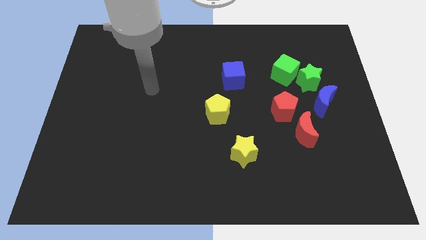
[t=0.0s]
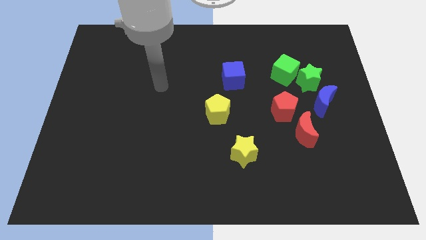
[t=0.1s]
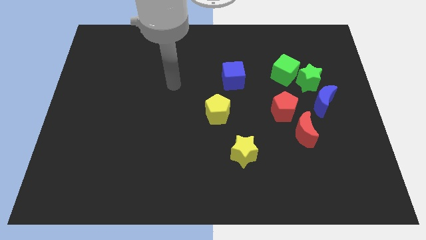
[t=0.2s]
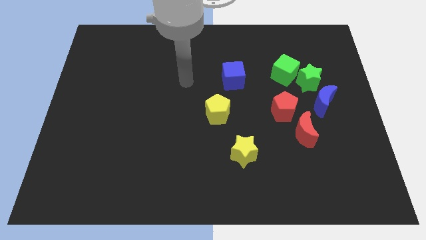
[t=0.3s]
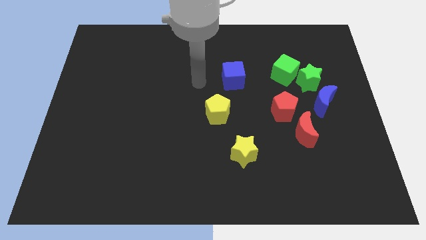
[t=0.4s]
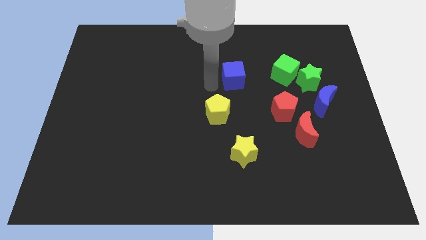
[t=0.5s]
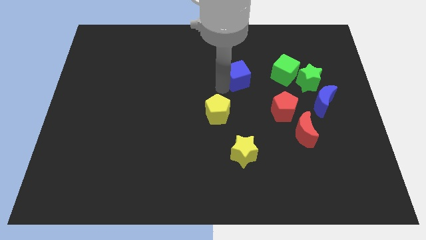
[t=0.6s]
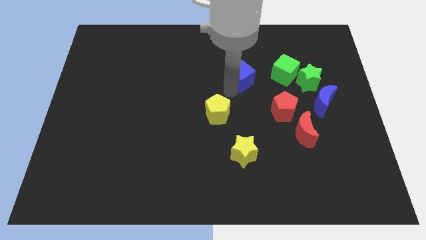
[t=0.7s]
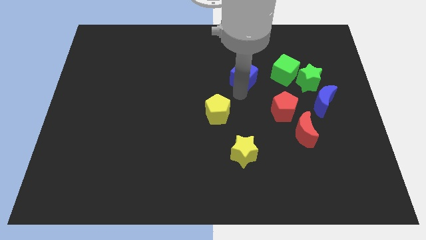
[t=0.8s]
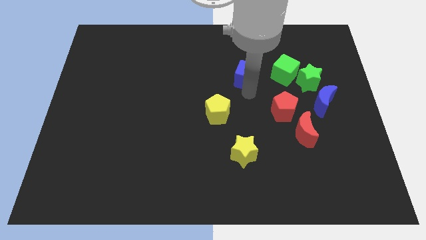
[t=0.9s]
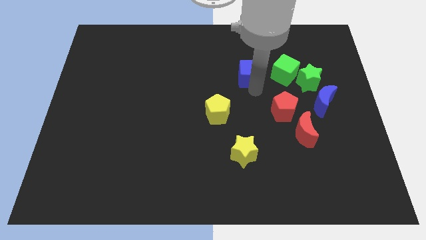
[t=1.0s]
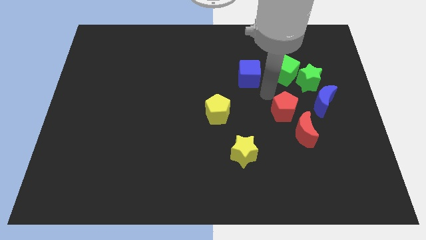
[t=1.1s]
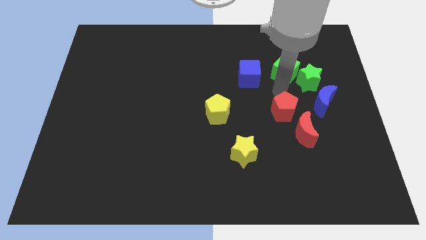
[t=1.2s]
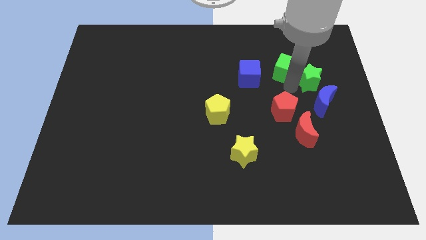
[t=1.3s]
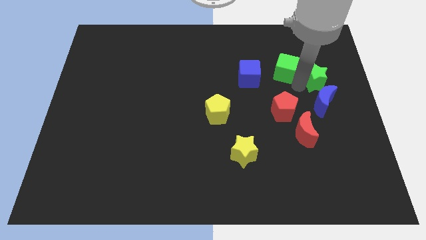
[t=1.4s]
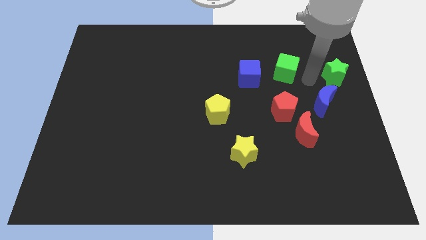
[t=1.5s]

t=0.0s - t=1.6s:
pull the green cube apart from the green star

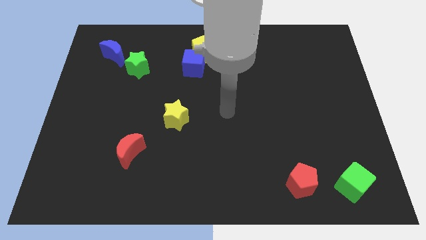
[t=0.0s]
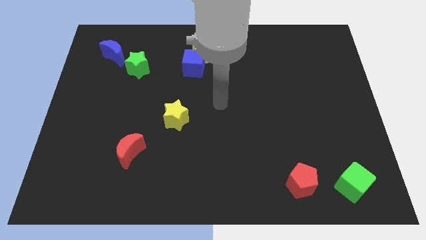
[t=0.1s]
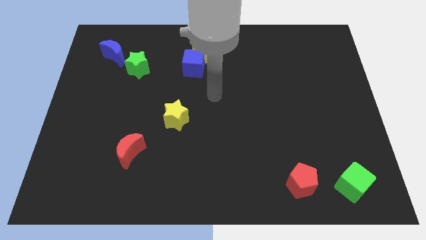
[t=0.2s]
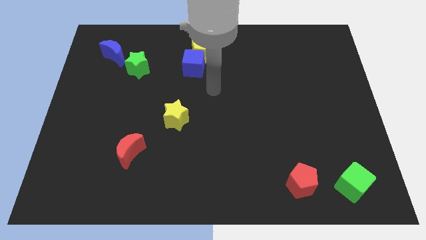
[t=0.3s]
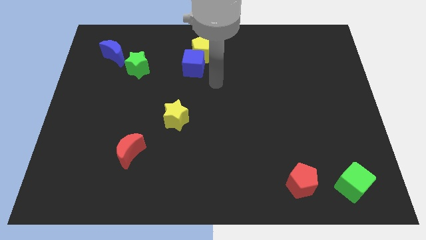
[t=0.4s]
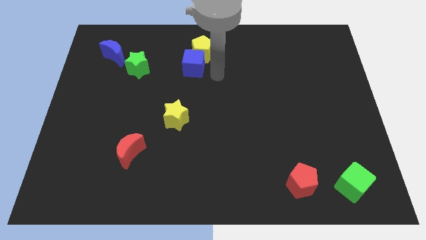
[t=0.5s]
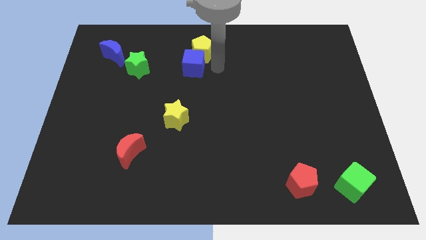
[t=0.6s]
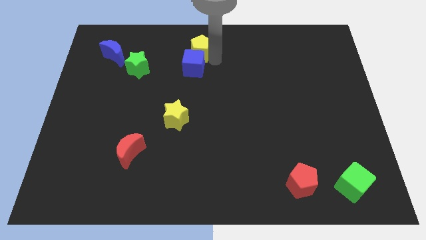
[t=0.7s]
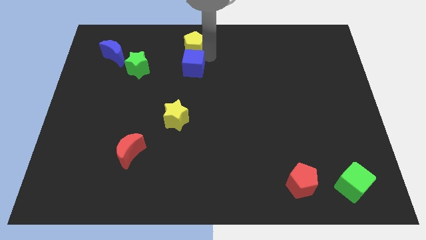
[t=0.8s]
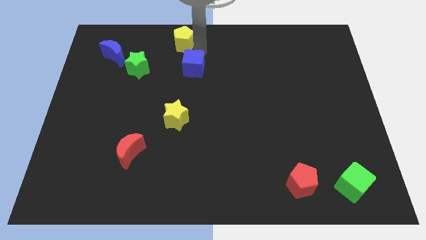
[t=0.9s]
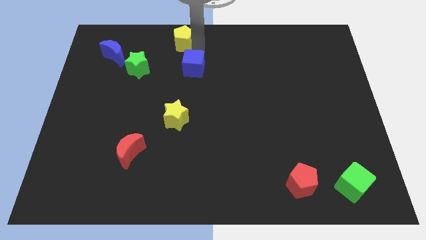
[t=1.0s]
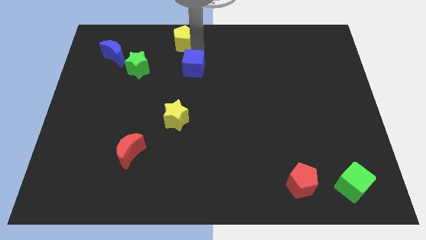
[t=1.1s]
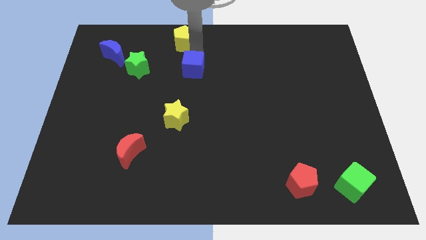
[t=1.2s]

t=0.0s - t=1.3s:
pull the blue cube apart from the yellow pentagon

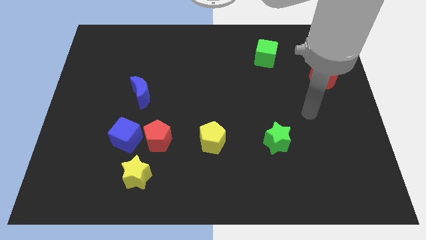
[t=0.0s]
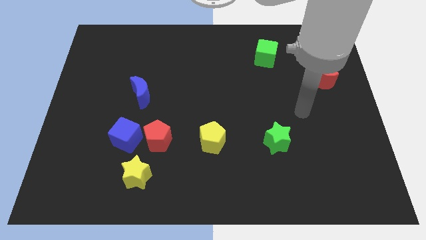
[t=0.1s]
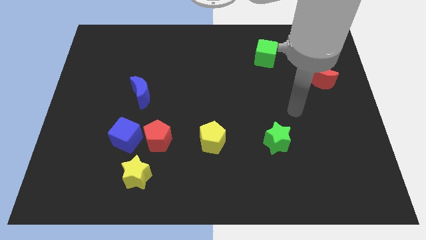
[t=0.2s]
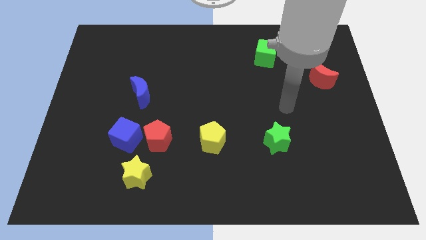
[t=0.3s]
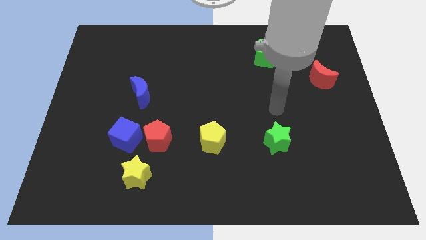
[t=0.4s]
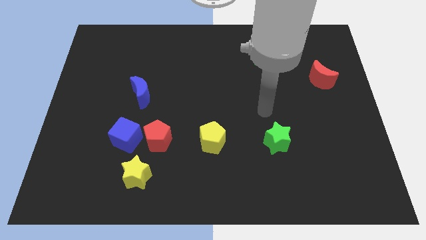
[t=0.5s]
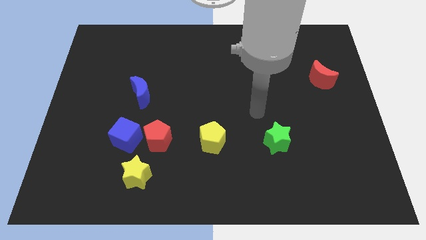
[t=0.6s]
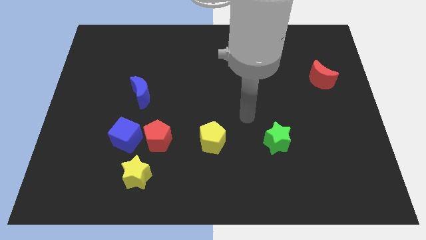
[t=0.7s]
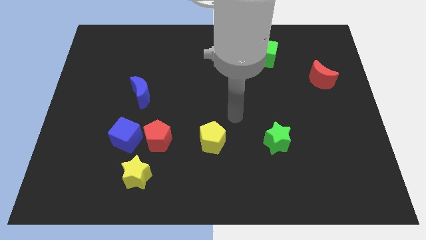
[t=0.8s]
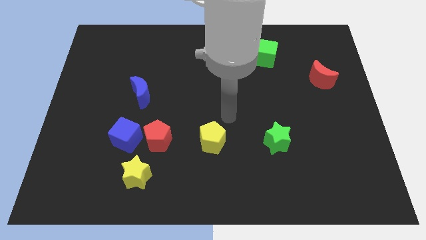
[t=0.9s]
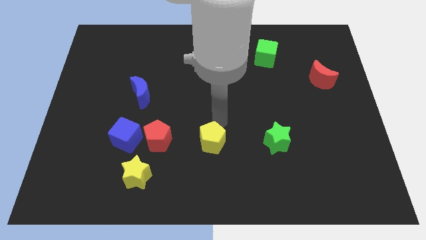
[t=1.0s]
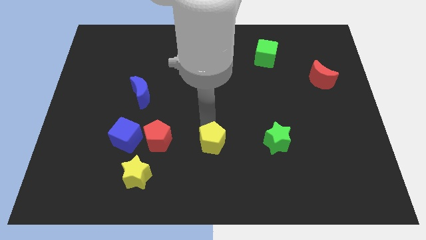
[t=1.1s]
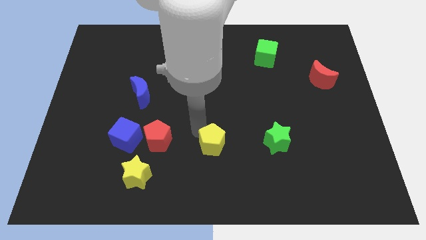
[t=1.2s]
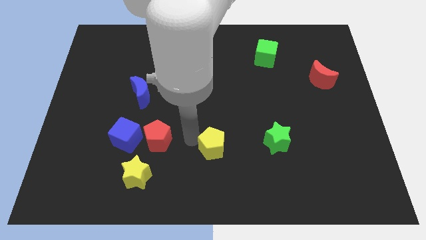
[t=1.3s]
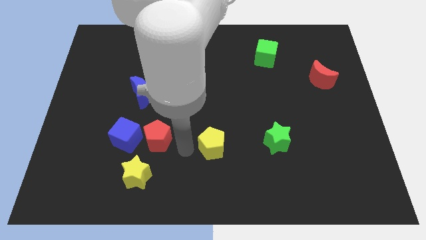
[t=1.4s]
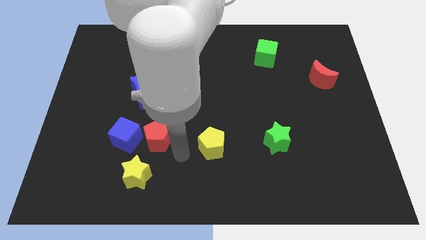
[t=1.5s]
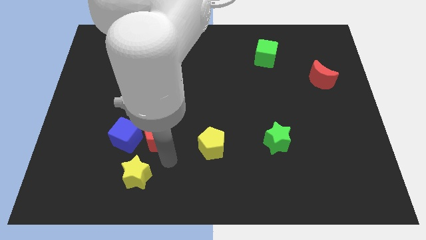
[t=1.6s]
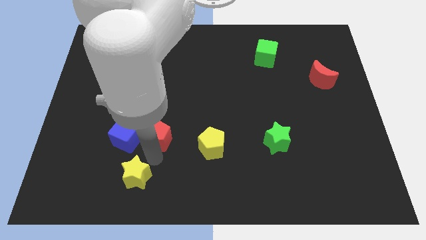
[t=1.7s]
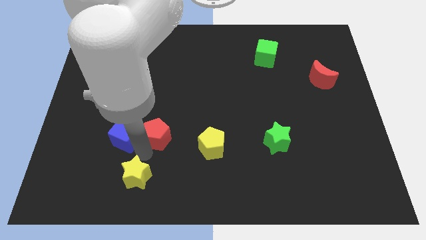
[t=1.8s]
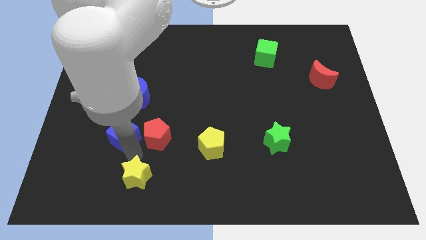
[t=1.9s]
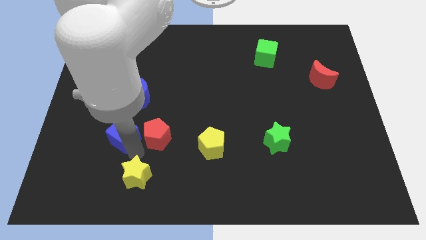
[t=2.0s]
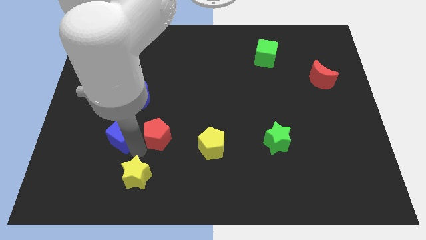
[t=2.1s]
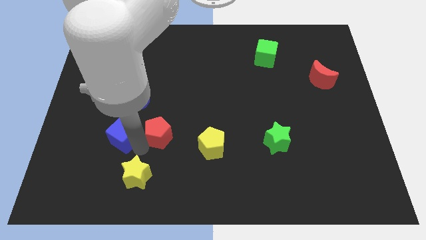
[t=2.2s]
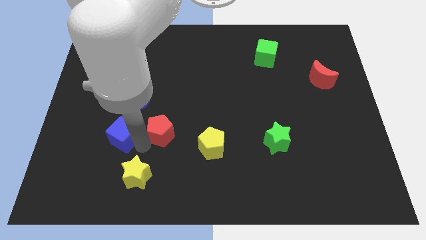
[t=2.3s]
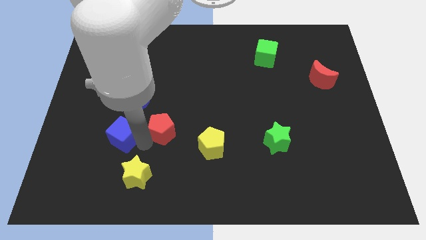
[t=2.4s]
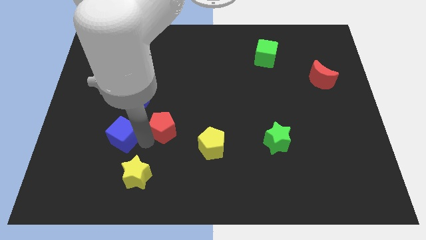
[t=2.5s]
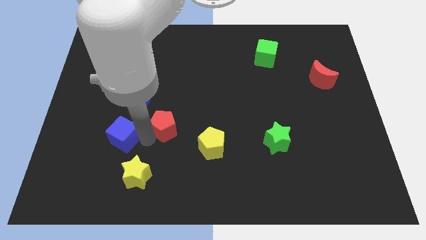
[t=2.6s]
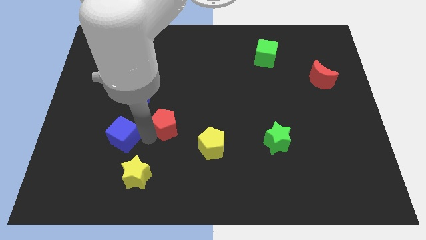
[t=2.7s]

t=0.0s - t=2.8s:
separate the red pentagon from the blue cube and yellow star

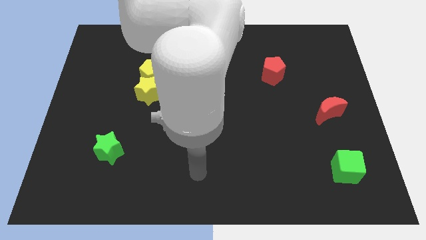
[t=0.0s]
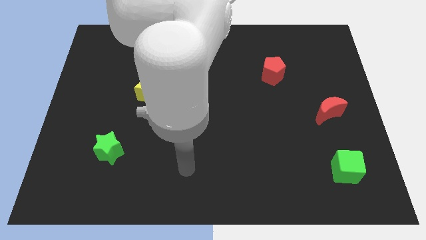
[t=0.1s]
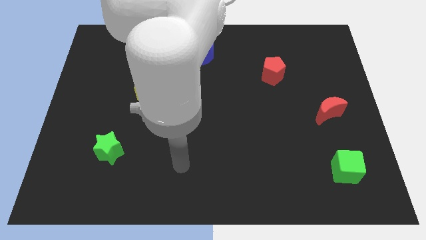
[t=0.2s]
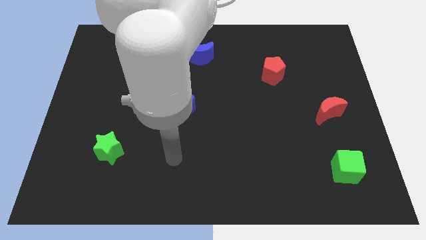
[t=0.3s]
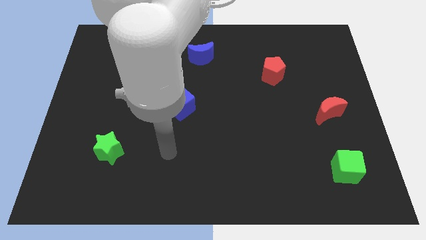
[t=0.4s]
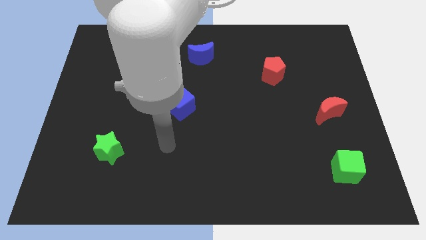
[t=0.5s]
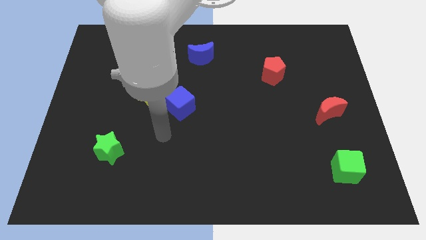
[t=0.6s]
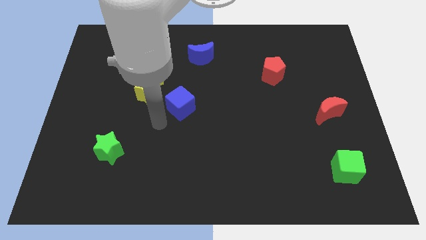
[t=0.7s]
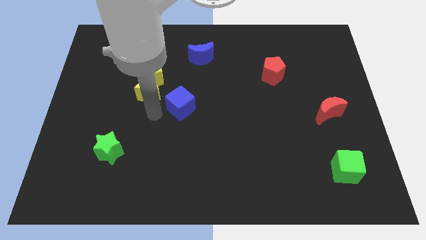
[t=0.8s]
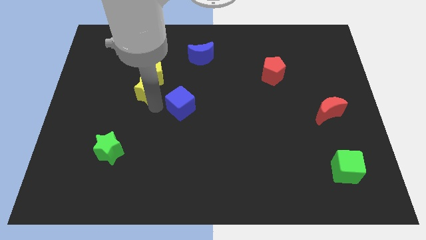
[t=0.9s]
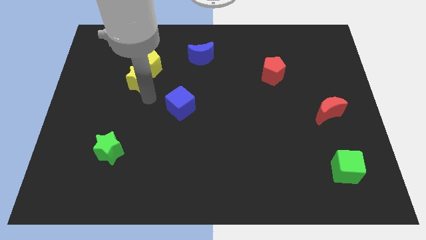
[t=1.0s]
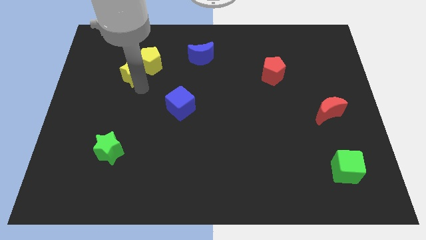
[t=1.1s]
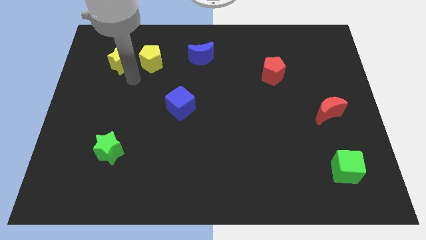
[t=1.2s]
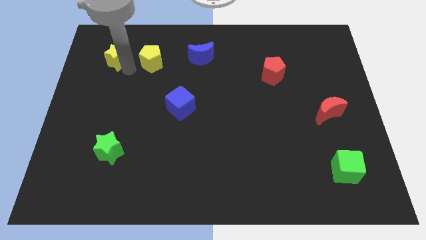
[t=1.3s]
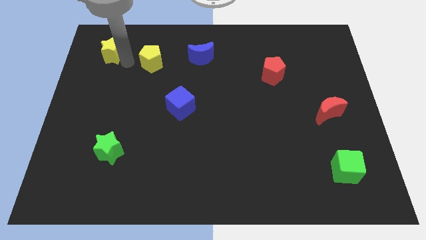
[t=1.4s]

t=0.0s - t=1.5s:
move the yellow pentagon away from the yellow star

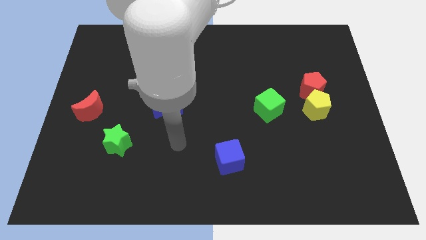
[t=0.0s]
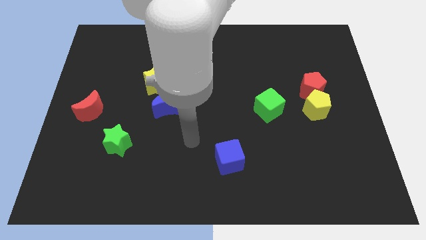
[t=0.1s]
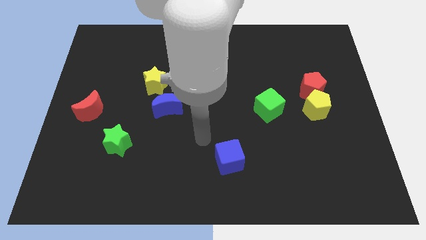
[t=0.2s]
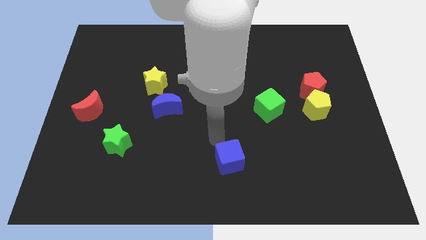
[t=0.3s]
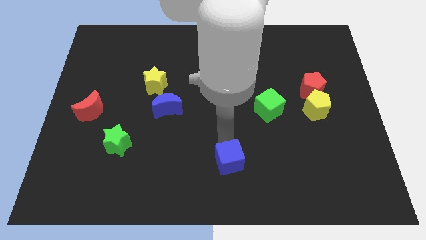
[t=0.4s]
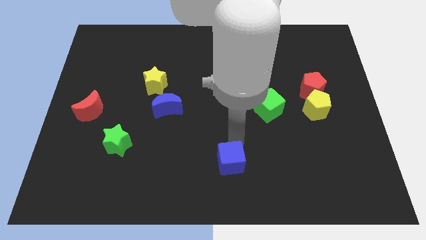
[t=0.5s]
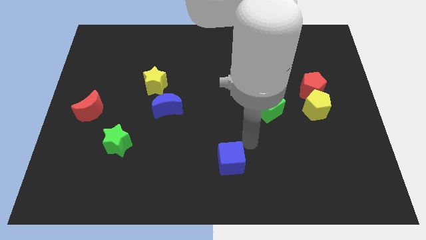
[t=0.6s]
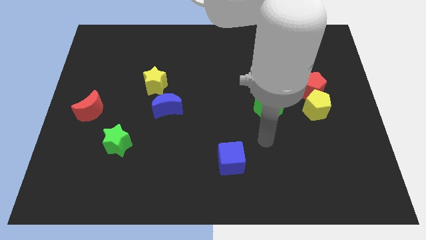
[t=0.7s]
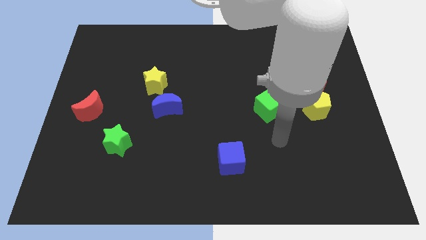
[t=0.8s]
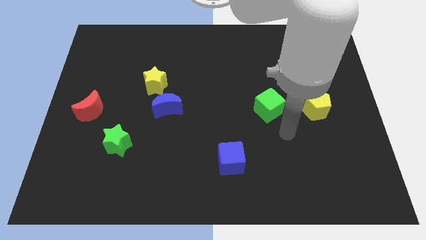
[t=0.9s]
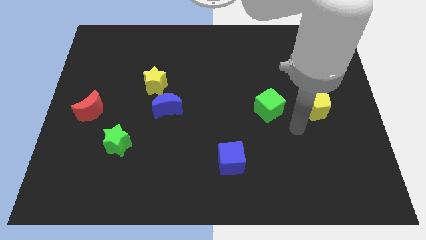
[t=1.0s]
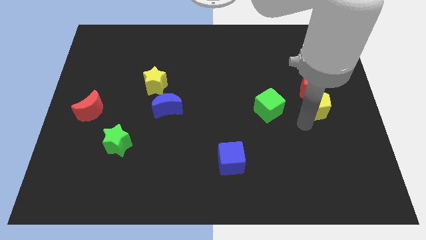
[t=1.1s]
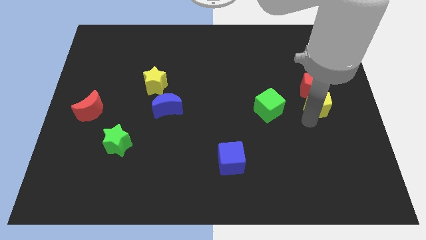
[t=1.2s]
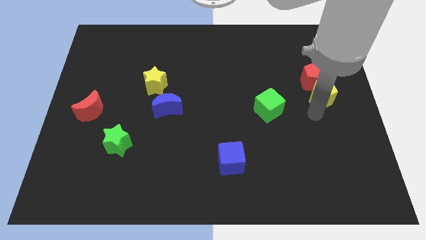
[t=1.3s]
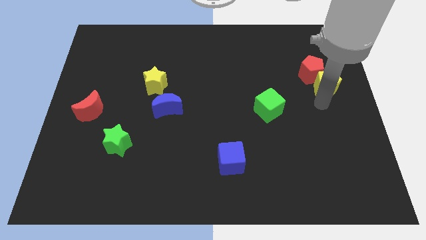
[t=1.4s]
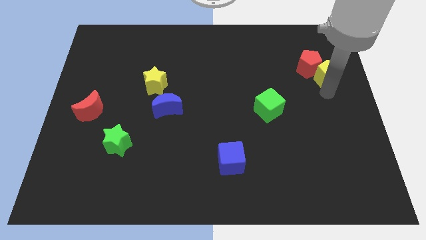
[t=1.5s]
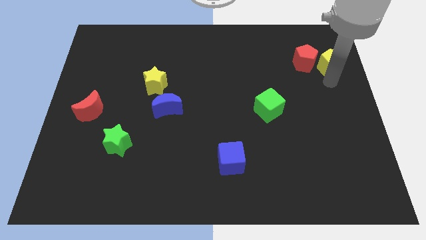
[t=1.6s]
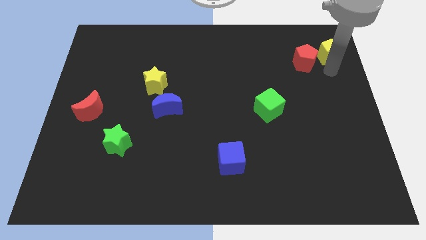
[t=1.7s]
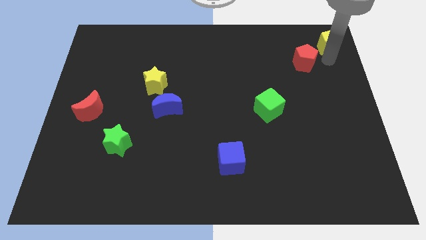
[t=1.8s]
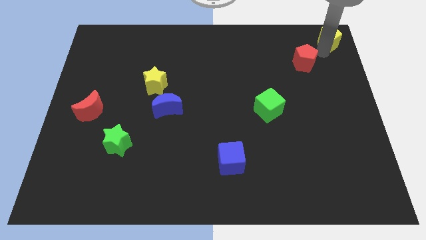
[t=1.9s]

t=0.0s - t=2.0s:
separate the red pentagon from the yellow pentagon
